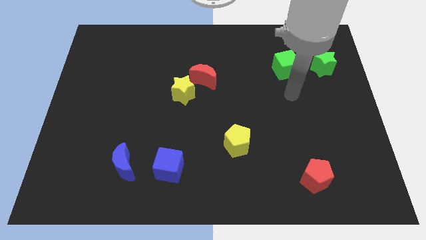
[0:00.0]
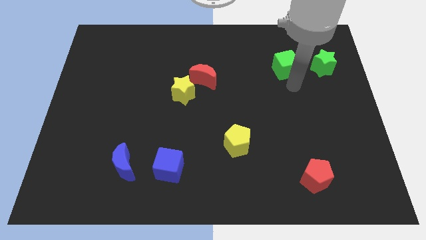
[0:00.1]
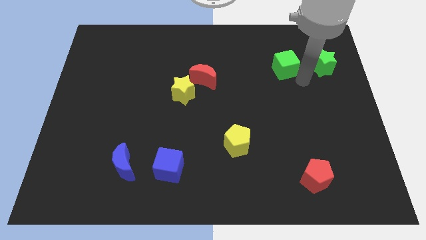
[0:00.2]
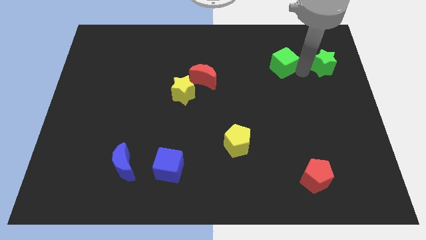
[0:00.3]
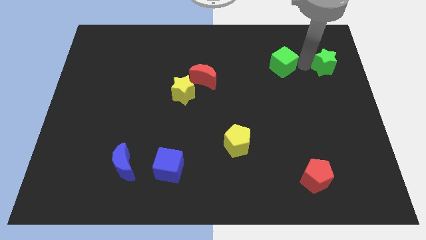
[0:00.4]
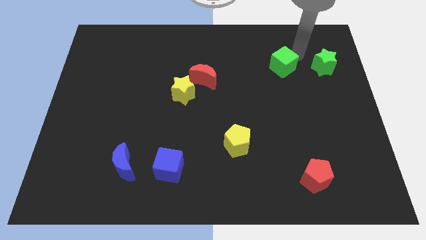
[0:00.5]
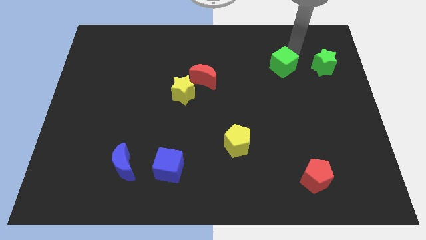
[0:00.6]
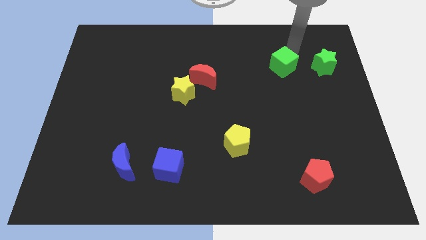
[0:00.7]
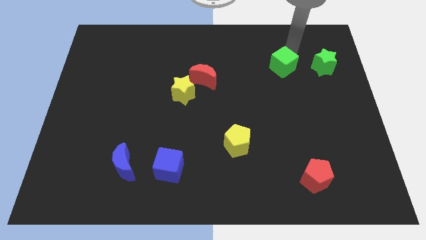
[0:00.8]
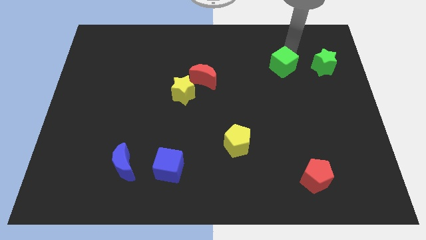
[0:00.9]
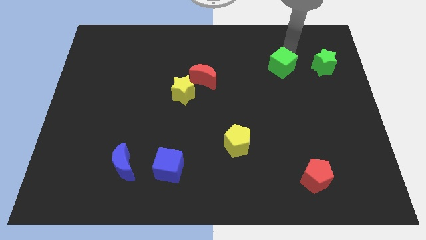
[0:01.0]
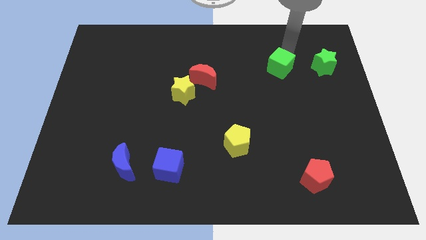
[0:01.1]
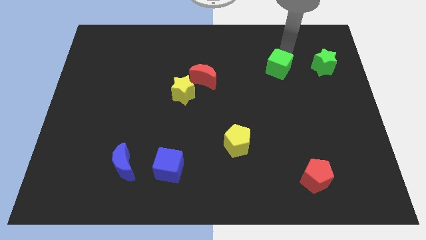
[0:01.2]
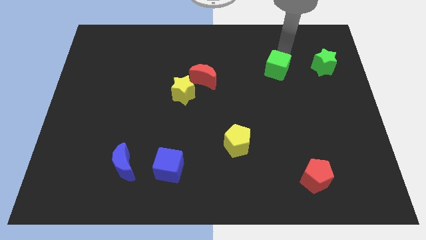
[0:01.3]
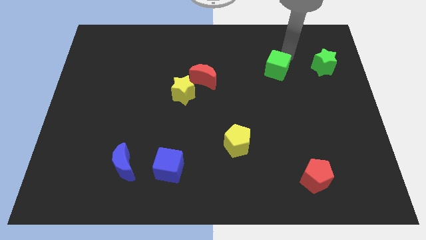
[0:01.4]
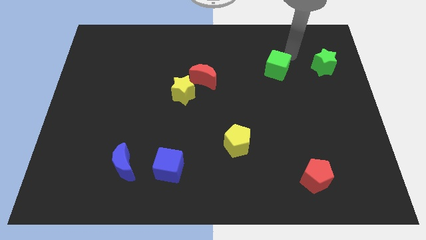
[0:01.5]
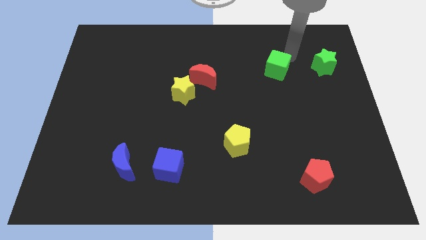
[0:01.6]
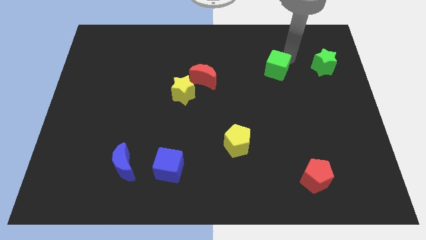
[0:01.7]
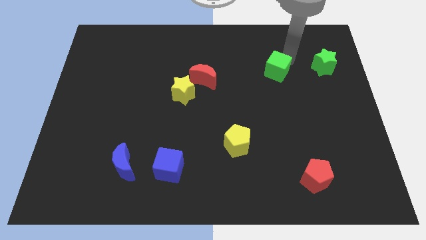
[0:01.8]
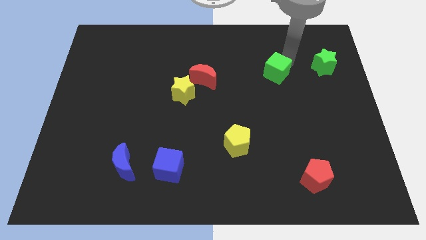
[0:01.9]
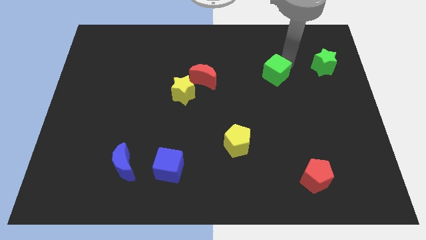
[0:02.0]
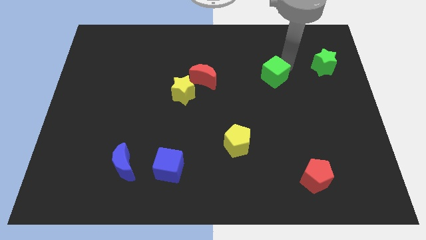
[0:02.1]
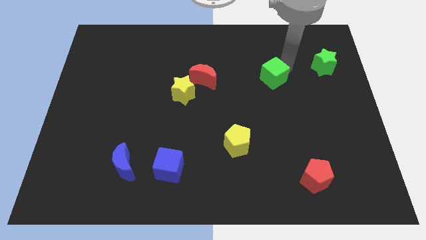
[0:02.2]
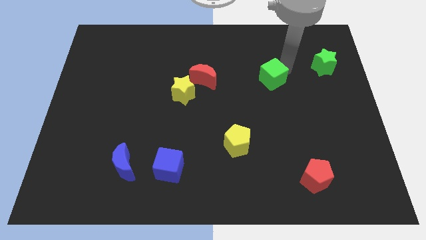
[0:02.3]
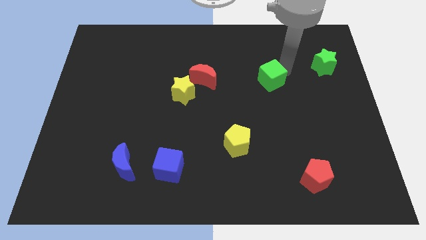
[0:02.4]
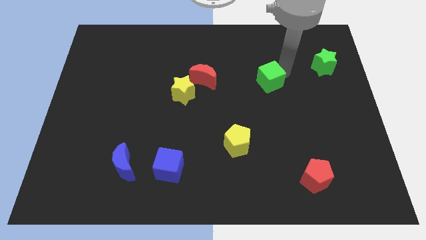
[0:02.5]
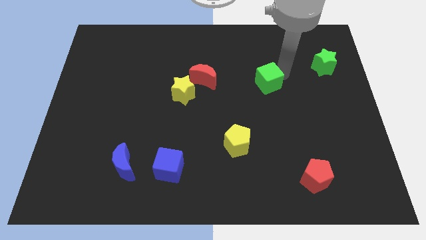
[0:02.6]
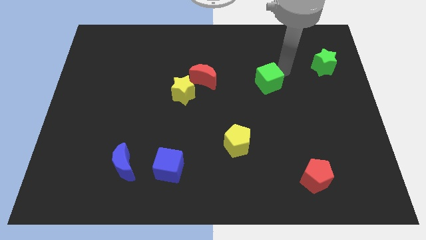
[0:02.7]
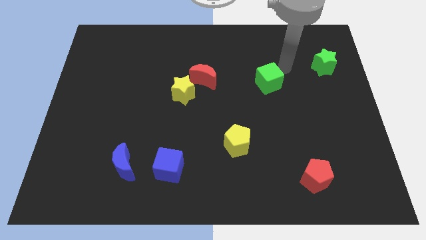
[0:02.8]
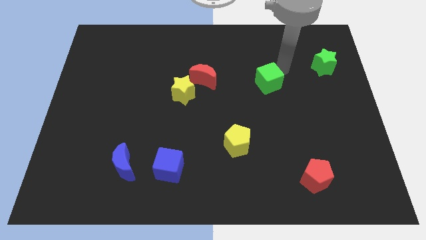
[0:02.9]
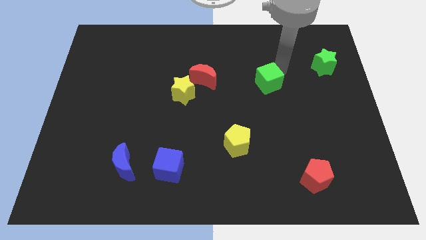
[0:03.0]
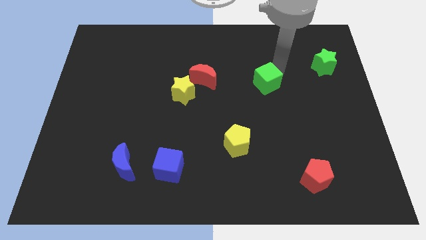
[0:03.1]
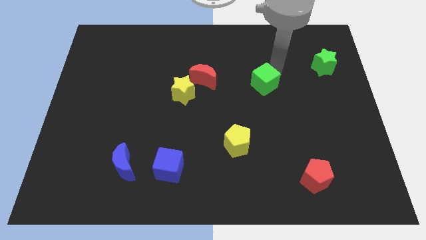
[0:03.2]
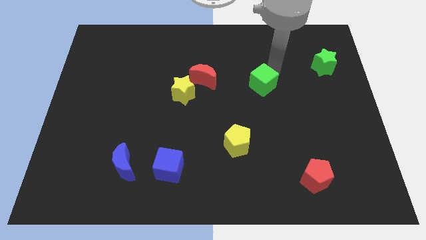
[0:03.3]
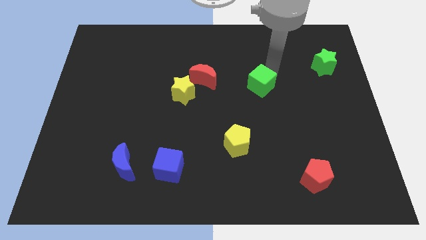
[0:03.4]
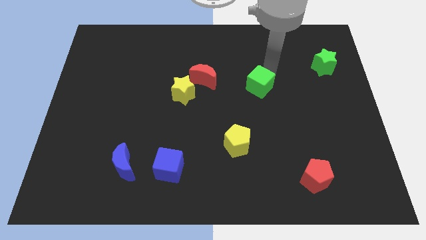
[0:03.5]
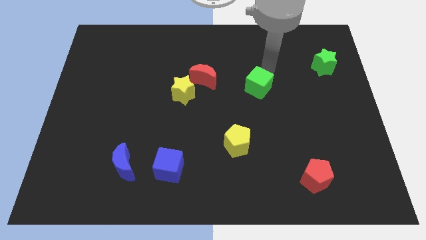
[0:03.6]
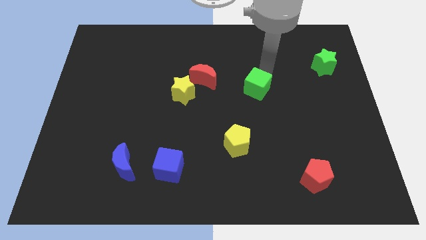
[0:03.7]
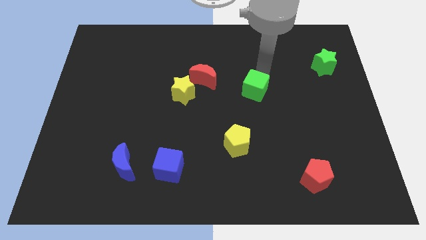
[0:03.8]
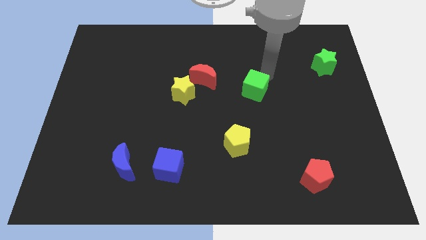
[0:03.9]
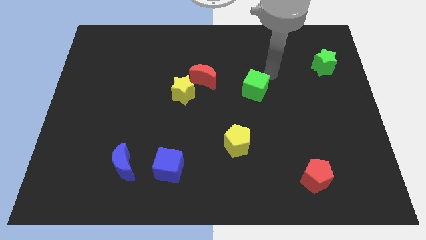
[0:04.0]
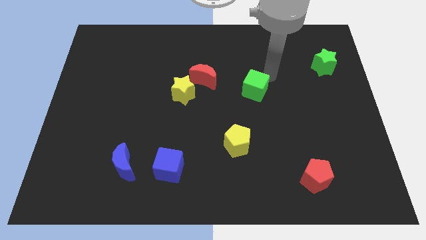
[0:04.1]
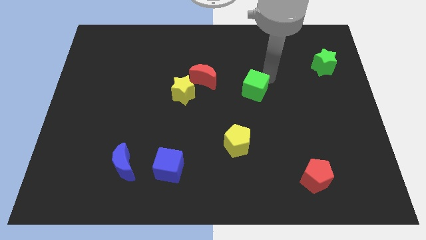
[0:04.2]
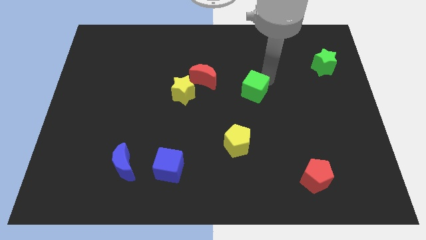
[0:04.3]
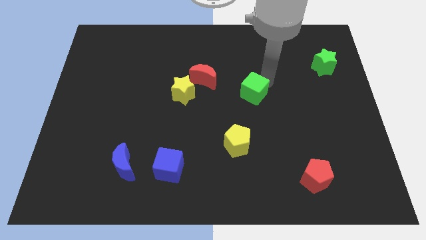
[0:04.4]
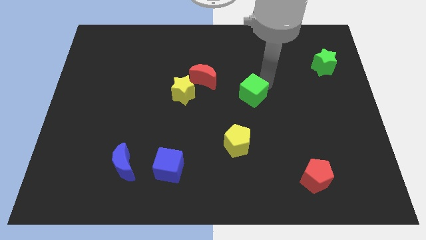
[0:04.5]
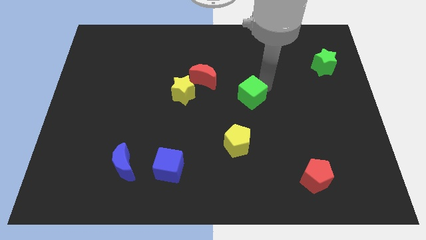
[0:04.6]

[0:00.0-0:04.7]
slide the green cube to the top of the yellow pentagon

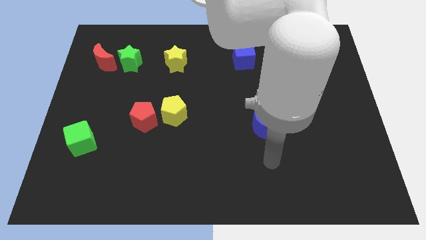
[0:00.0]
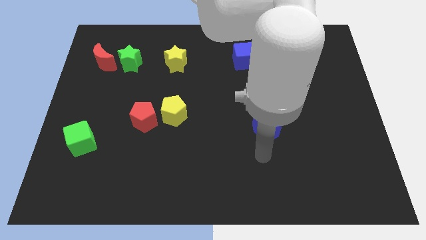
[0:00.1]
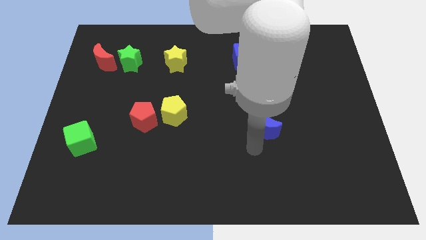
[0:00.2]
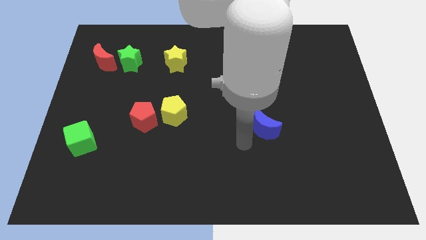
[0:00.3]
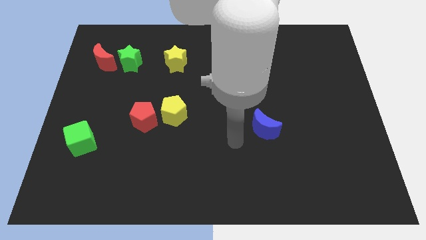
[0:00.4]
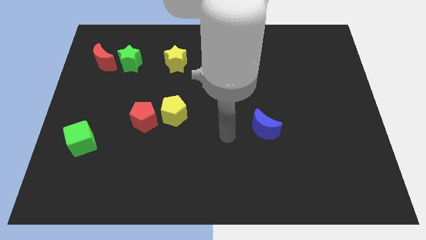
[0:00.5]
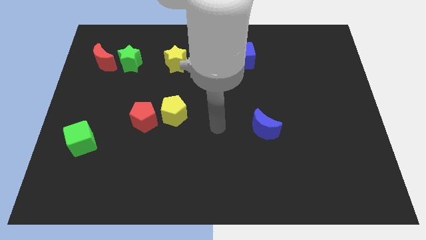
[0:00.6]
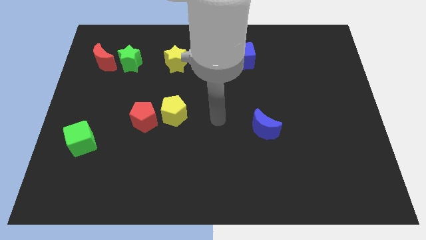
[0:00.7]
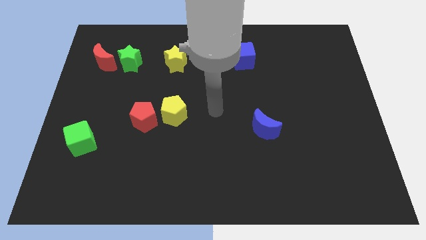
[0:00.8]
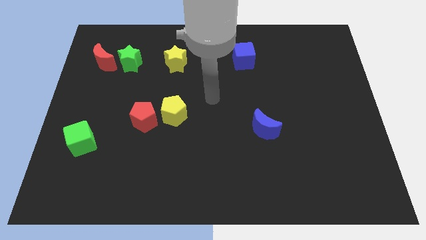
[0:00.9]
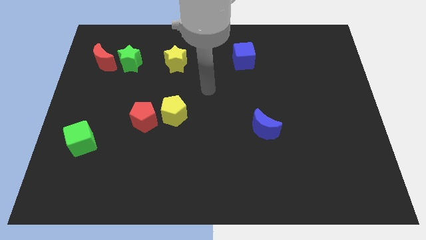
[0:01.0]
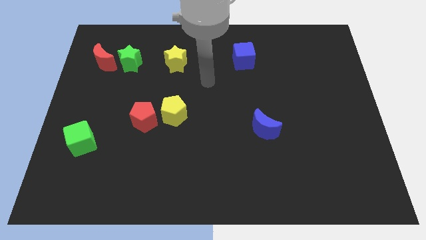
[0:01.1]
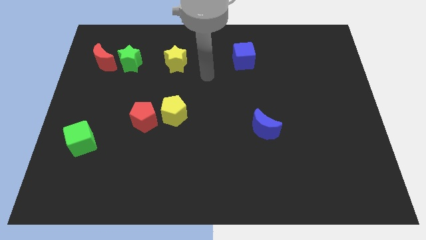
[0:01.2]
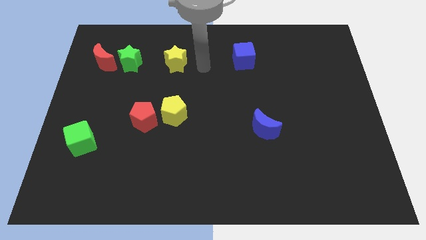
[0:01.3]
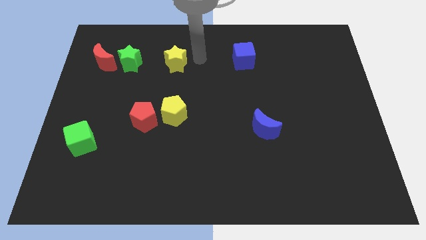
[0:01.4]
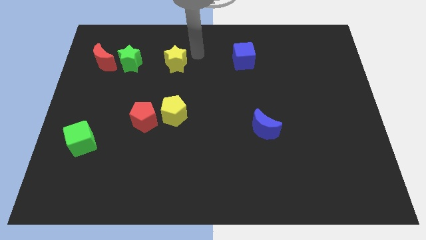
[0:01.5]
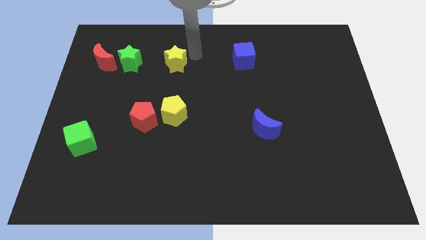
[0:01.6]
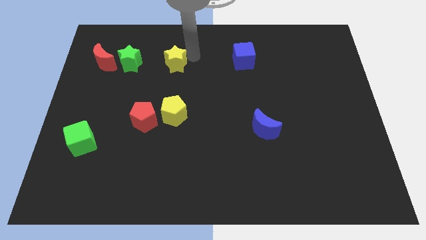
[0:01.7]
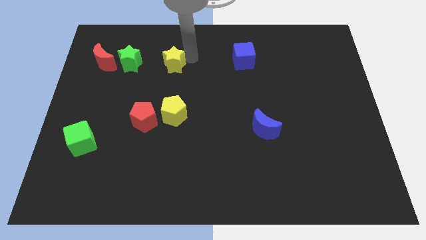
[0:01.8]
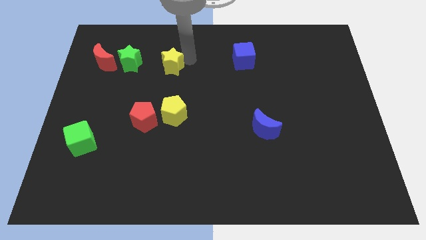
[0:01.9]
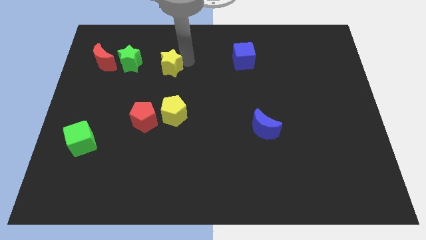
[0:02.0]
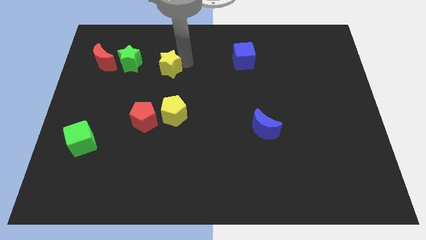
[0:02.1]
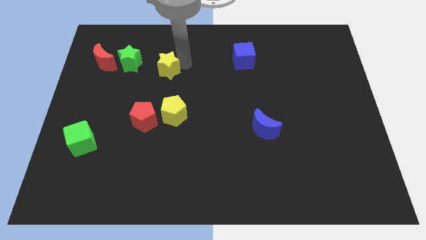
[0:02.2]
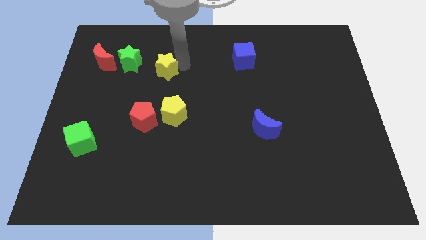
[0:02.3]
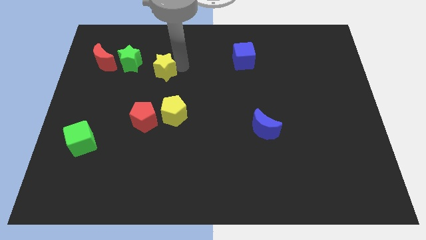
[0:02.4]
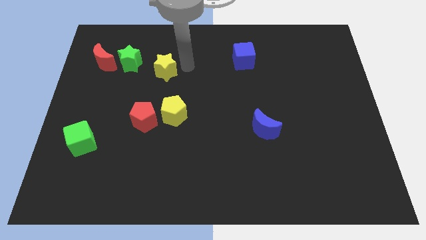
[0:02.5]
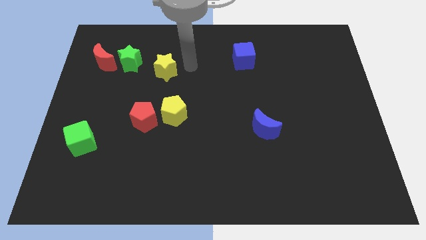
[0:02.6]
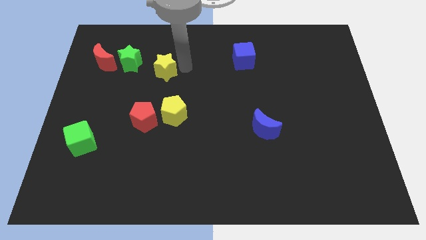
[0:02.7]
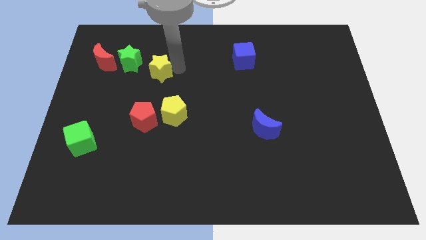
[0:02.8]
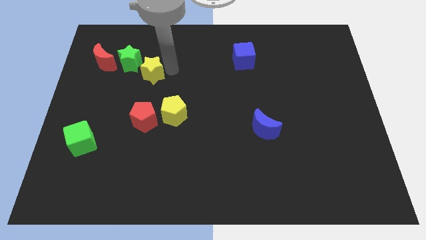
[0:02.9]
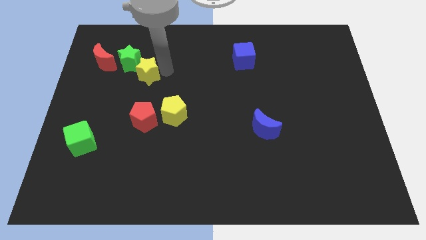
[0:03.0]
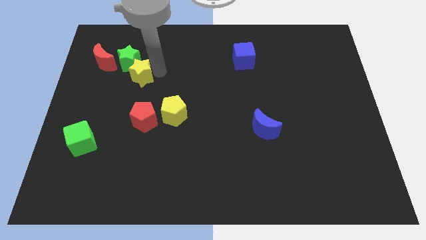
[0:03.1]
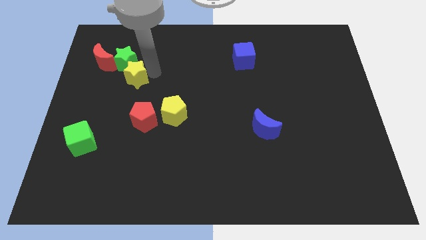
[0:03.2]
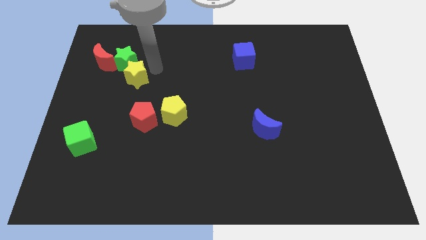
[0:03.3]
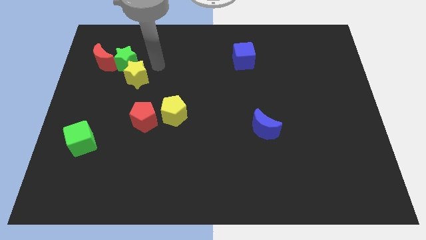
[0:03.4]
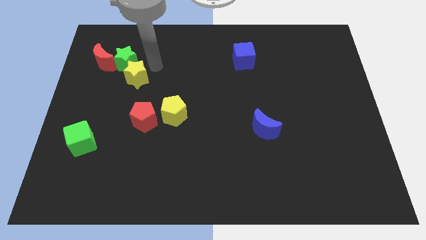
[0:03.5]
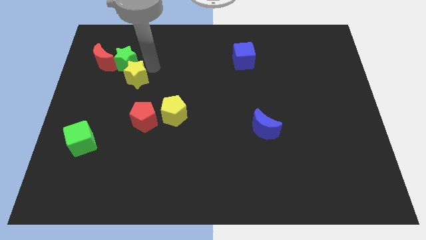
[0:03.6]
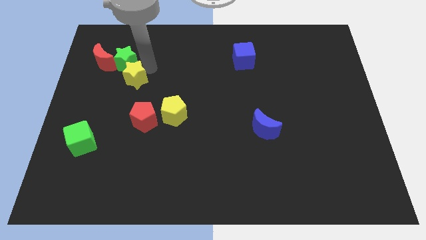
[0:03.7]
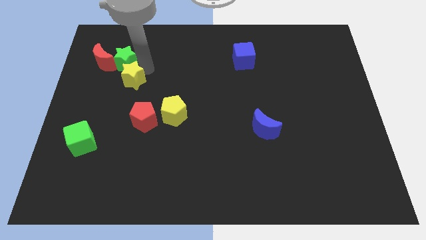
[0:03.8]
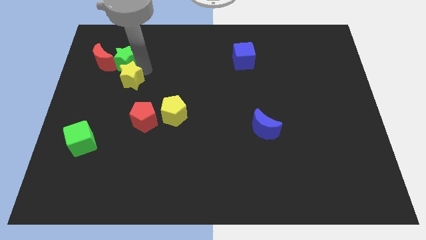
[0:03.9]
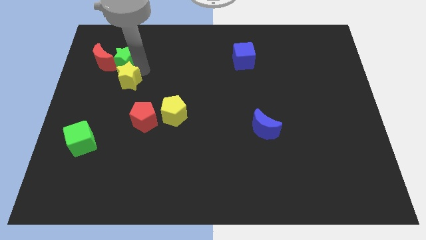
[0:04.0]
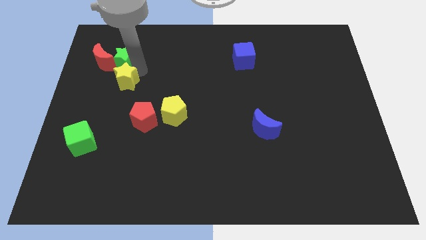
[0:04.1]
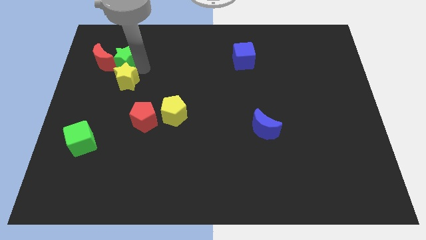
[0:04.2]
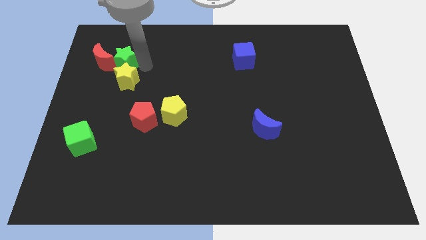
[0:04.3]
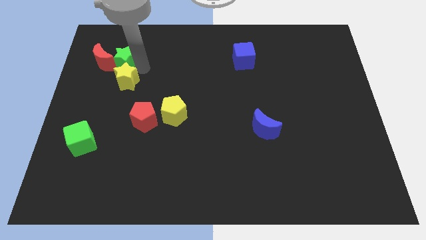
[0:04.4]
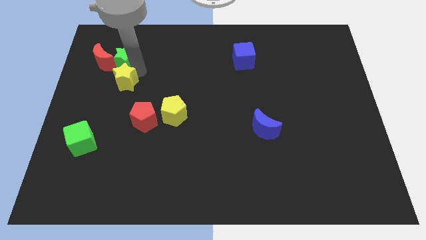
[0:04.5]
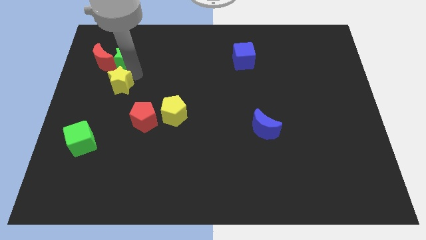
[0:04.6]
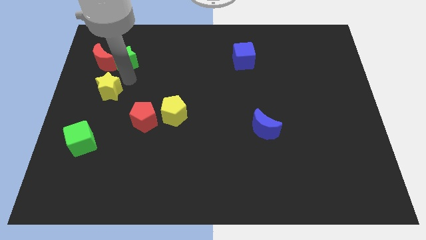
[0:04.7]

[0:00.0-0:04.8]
push the yellow star above the green cube
